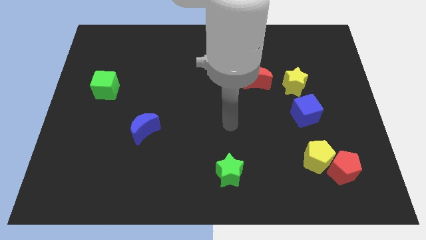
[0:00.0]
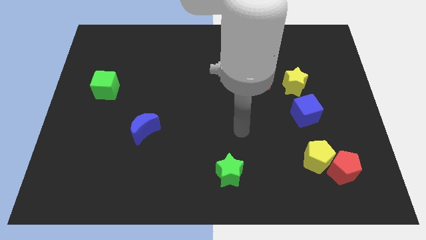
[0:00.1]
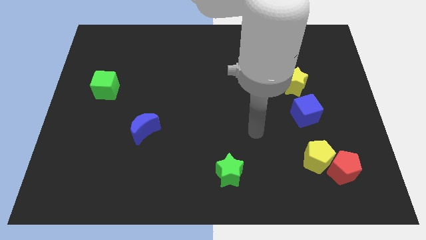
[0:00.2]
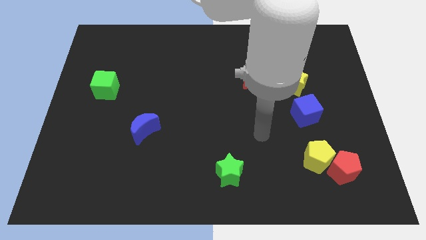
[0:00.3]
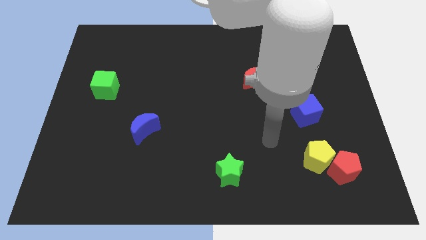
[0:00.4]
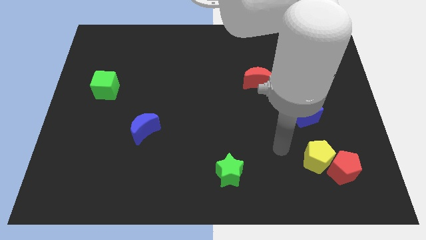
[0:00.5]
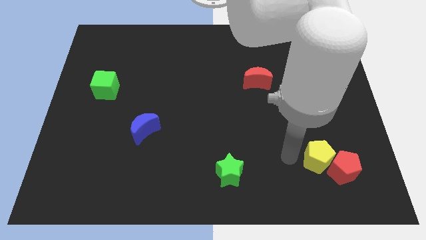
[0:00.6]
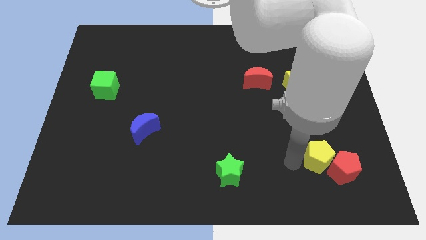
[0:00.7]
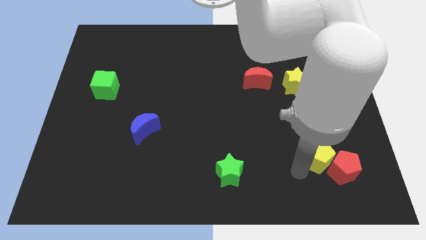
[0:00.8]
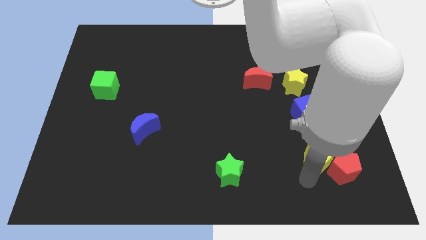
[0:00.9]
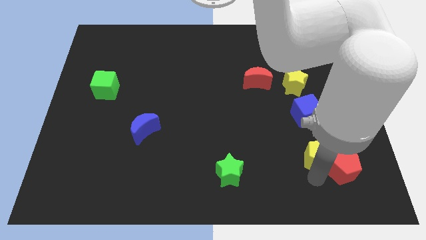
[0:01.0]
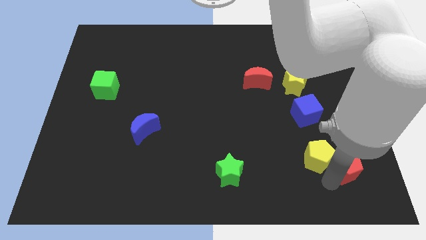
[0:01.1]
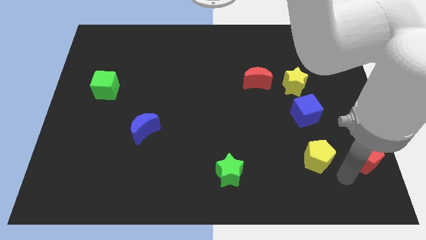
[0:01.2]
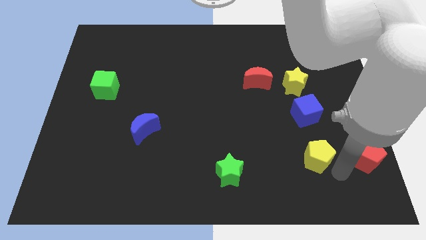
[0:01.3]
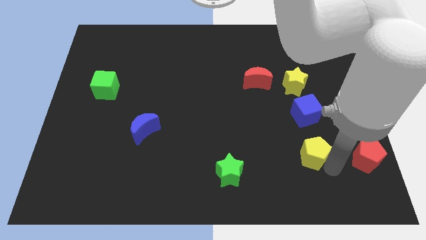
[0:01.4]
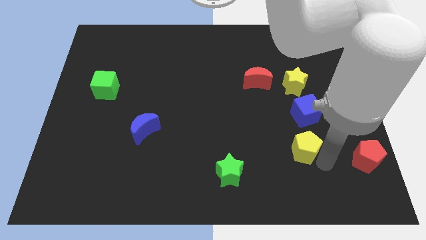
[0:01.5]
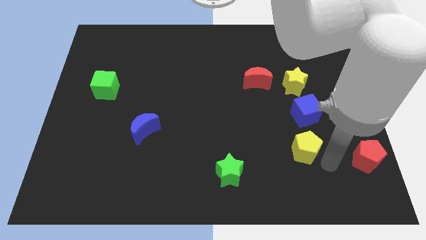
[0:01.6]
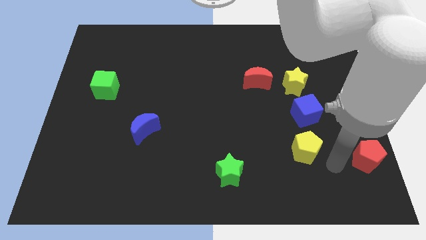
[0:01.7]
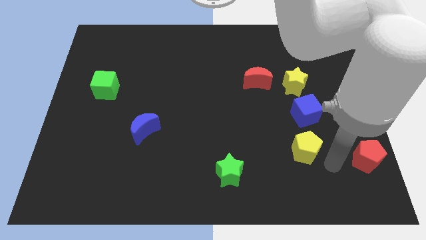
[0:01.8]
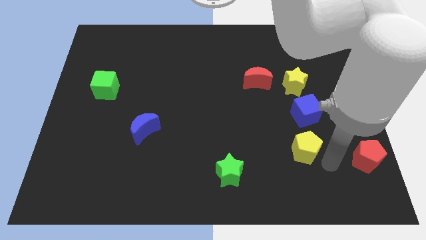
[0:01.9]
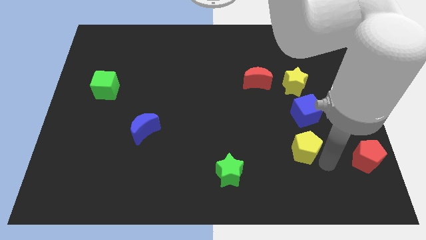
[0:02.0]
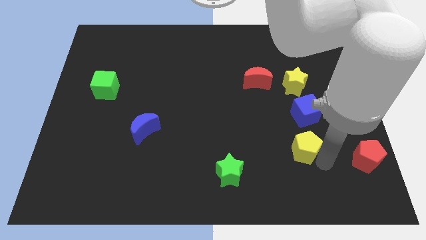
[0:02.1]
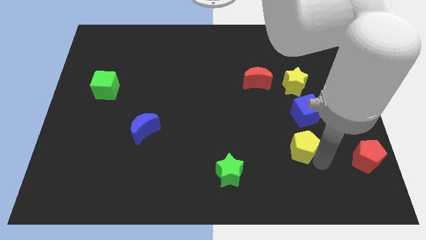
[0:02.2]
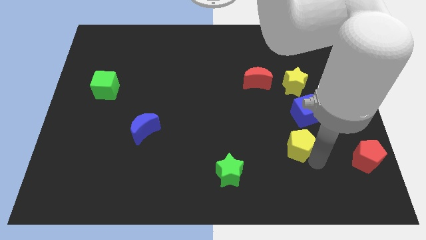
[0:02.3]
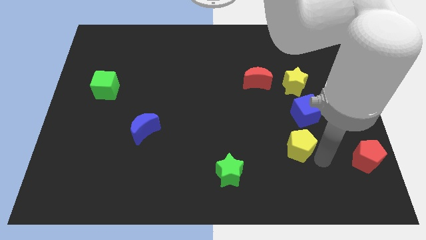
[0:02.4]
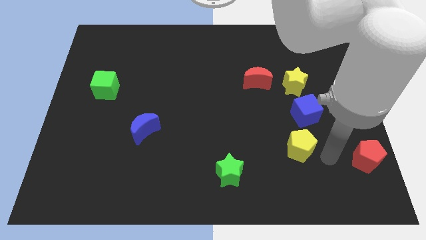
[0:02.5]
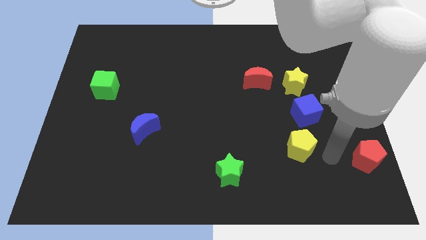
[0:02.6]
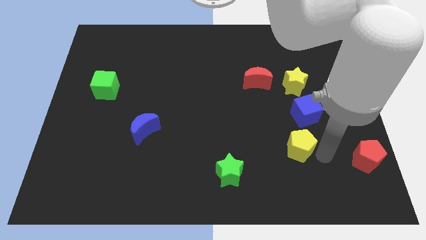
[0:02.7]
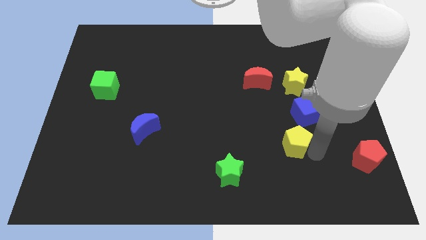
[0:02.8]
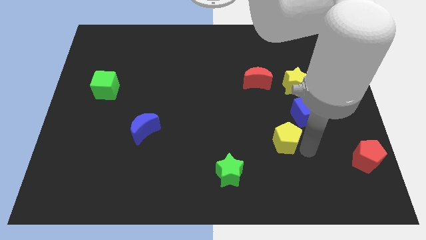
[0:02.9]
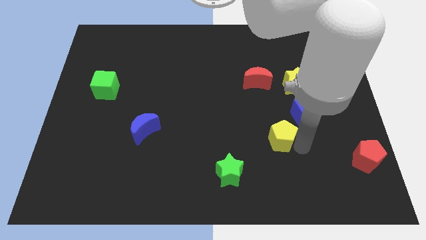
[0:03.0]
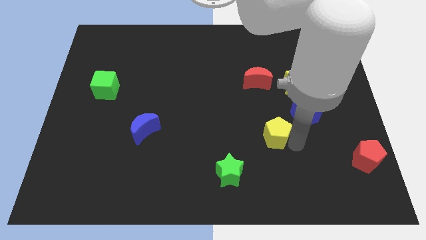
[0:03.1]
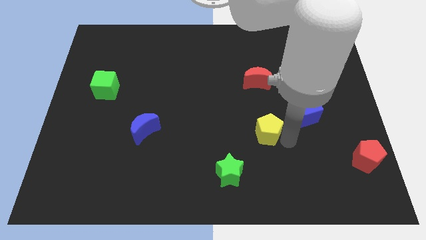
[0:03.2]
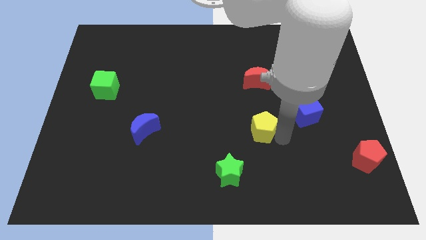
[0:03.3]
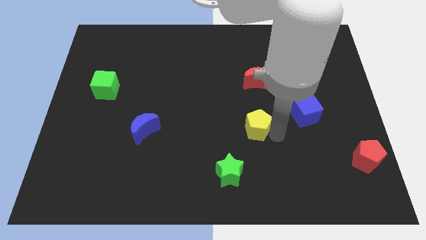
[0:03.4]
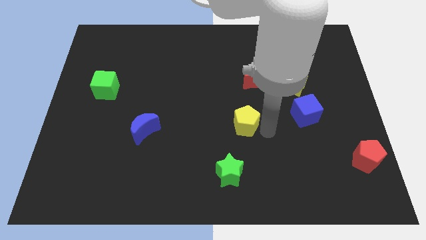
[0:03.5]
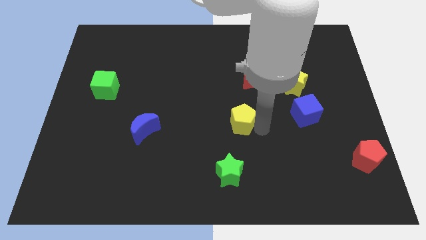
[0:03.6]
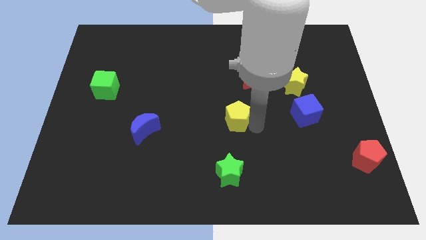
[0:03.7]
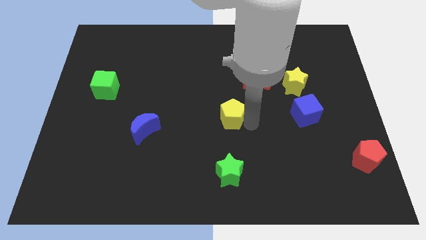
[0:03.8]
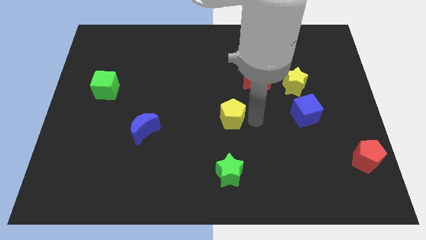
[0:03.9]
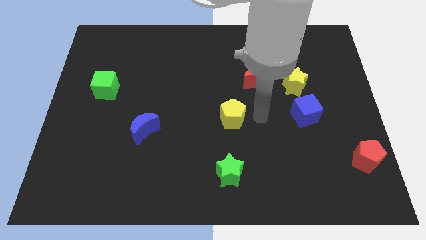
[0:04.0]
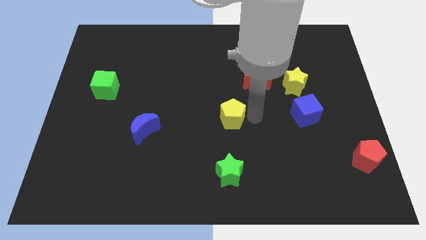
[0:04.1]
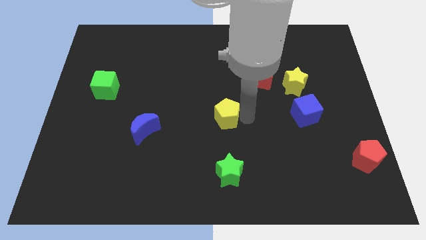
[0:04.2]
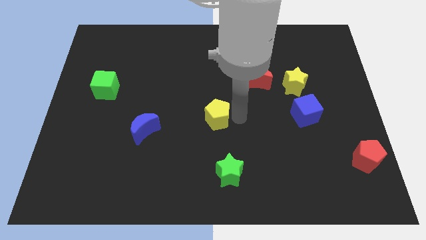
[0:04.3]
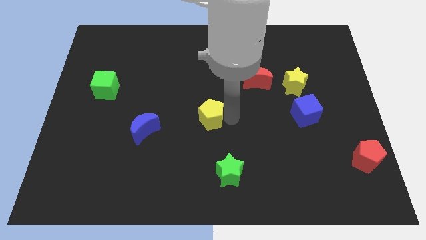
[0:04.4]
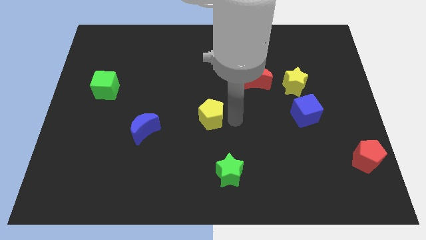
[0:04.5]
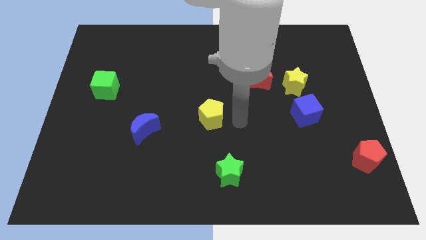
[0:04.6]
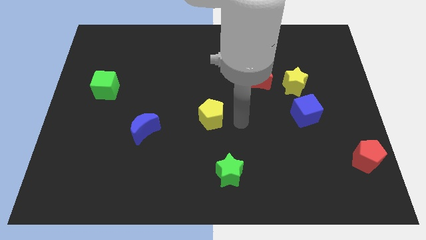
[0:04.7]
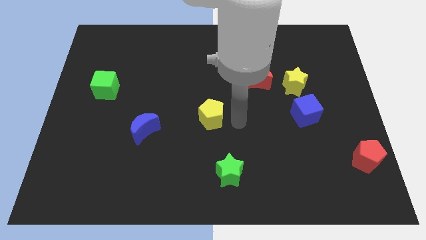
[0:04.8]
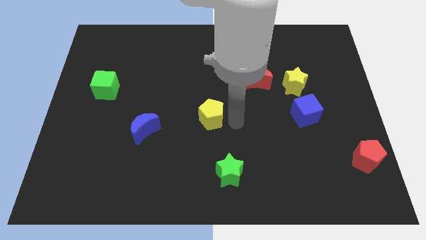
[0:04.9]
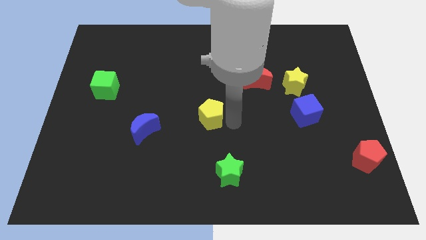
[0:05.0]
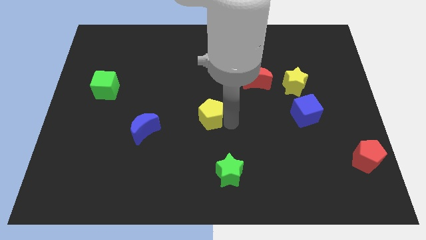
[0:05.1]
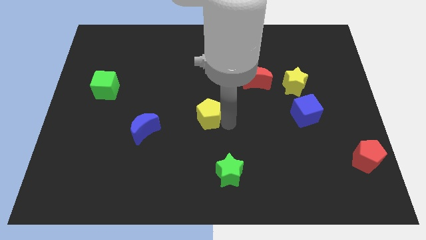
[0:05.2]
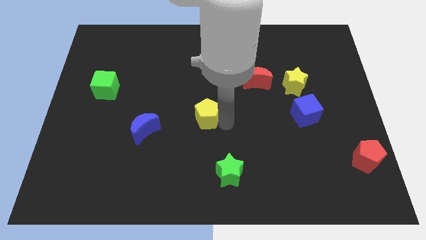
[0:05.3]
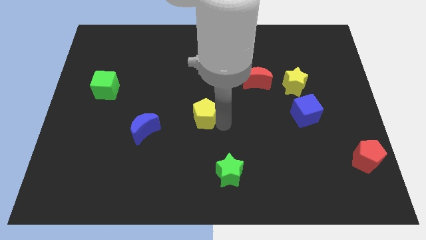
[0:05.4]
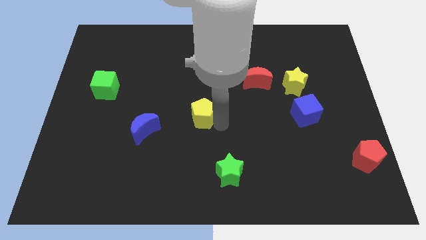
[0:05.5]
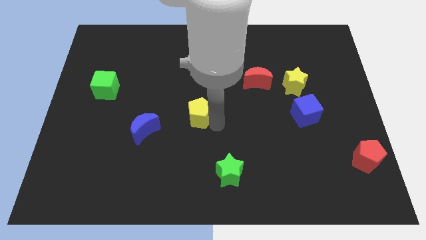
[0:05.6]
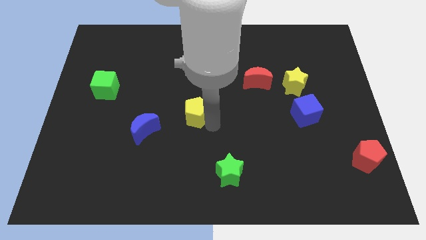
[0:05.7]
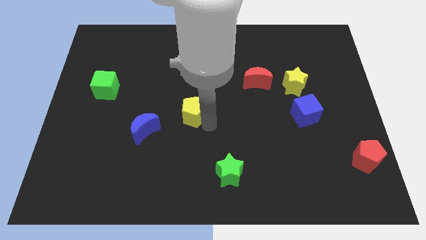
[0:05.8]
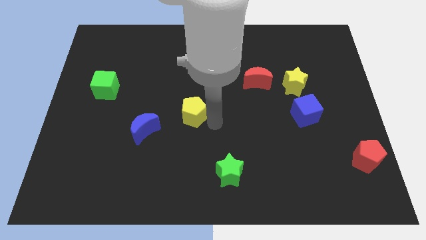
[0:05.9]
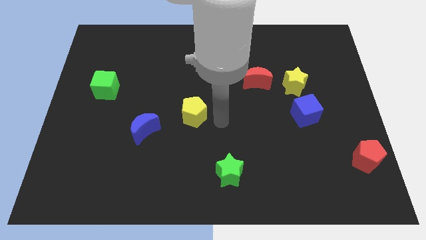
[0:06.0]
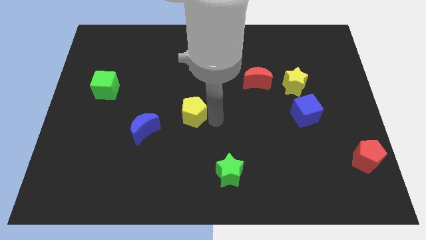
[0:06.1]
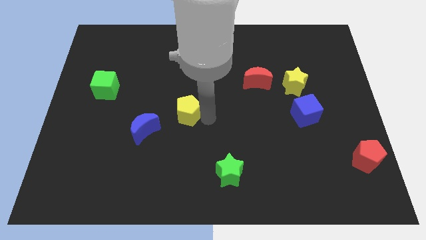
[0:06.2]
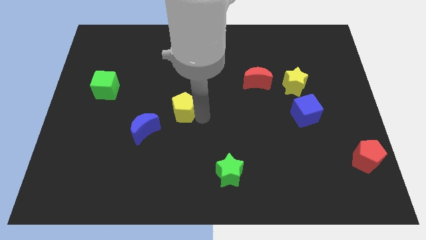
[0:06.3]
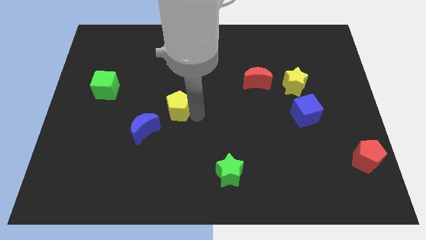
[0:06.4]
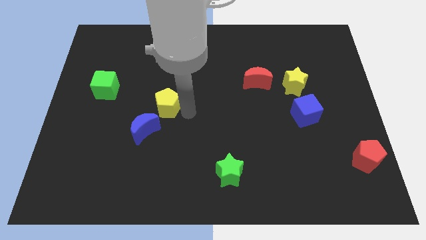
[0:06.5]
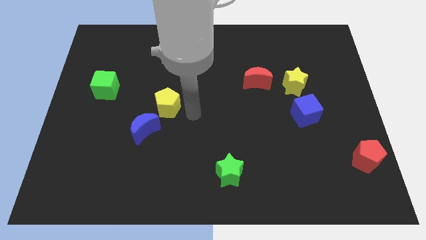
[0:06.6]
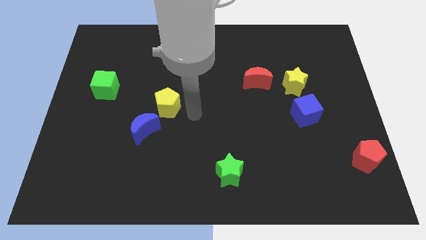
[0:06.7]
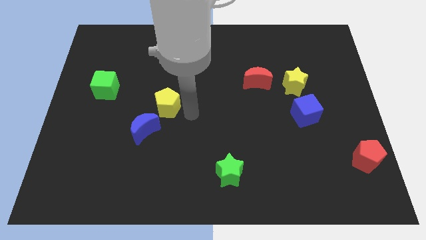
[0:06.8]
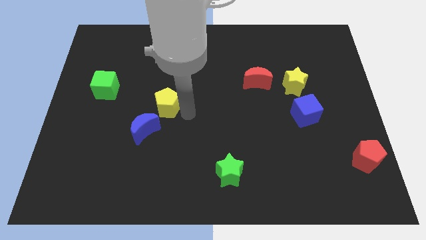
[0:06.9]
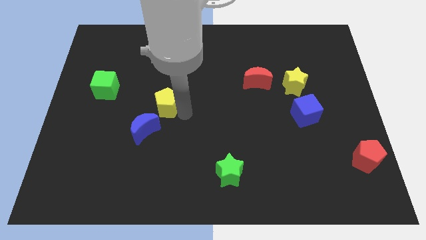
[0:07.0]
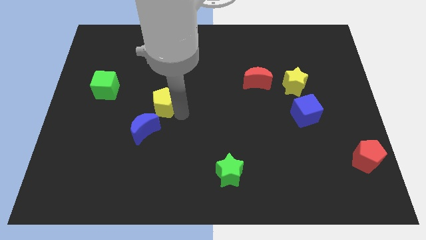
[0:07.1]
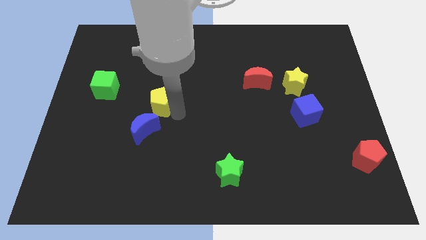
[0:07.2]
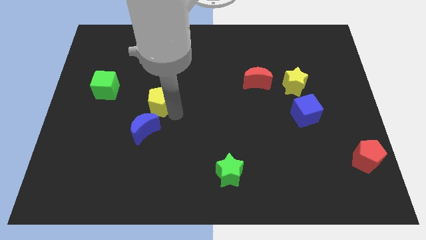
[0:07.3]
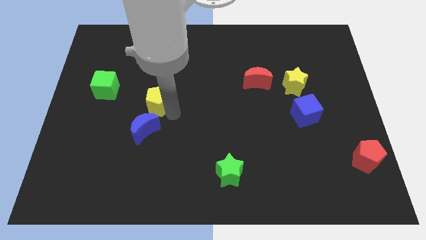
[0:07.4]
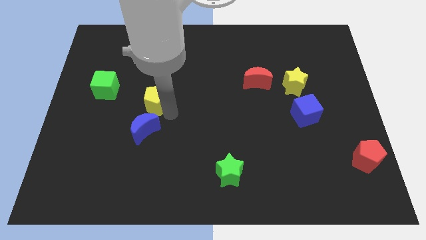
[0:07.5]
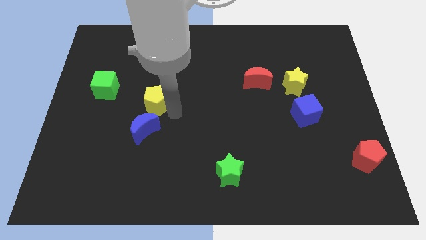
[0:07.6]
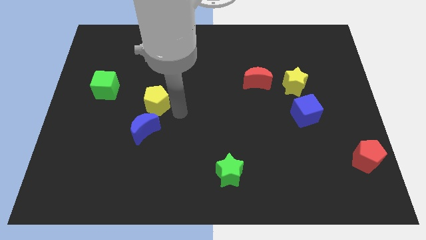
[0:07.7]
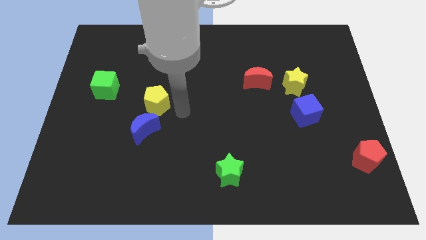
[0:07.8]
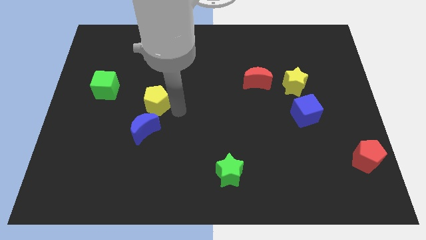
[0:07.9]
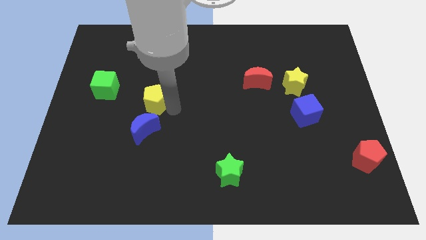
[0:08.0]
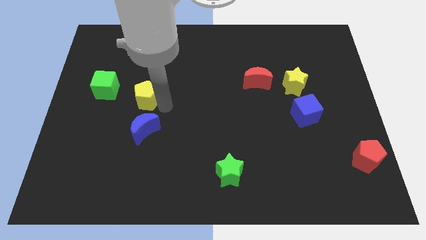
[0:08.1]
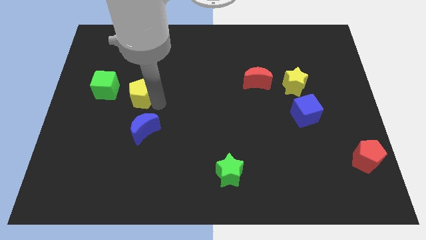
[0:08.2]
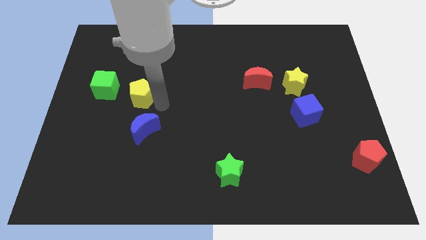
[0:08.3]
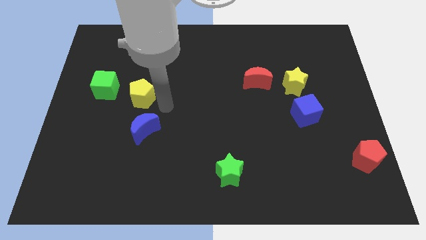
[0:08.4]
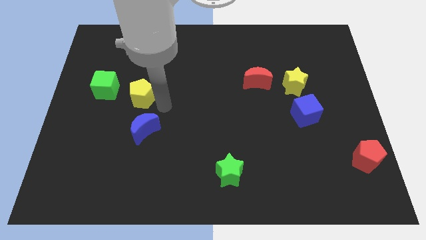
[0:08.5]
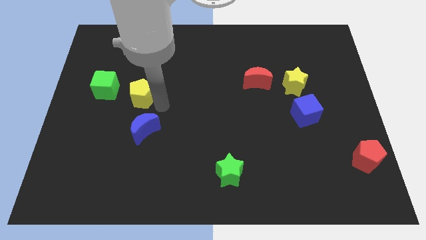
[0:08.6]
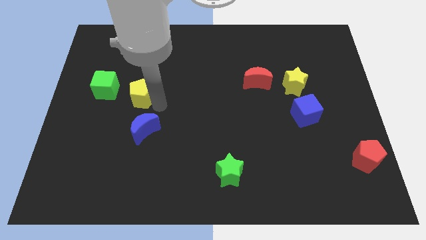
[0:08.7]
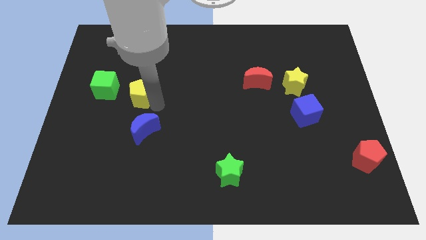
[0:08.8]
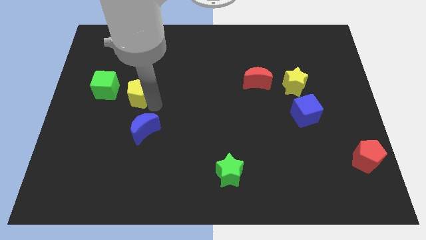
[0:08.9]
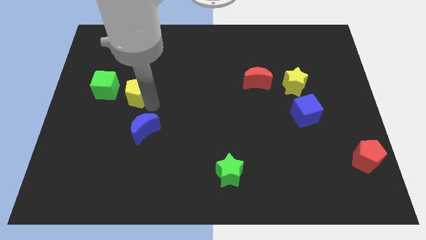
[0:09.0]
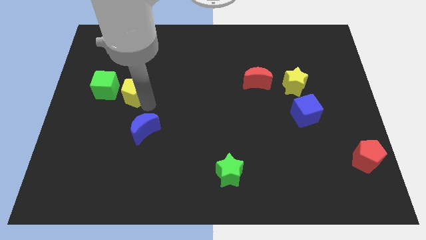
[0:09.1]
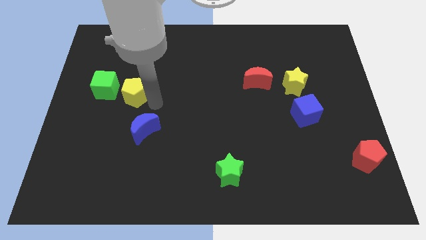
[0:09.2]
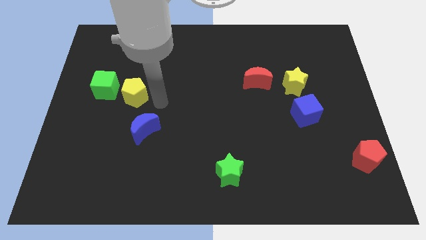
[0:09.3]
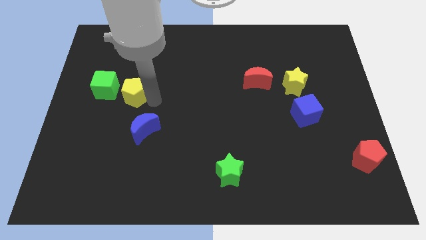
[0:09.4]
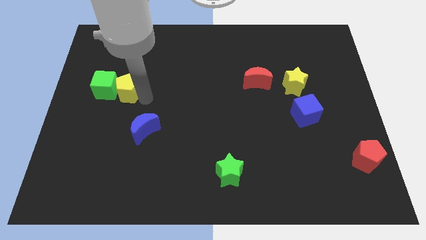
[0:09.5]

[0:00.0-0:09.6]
slide the yellow pentagon close to the green cube
